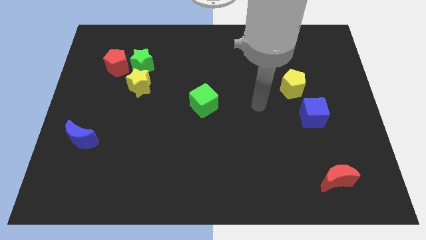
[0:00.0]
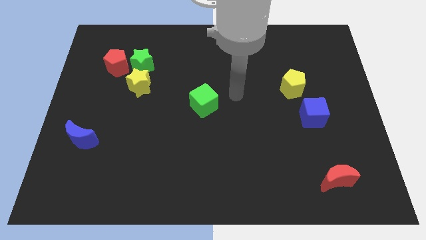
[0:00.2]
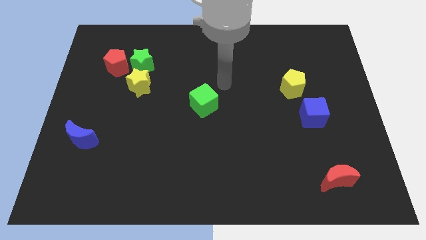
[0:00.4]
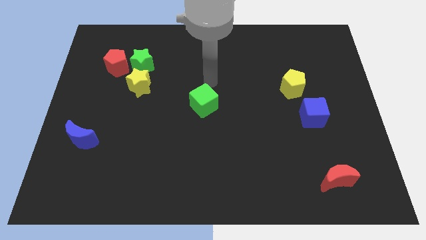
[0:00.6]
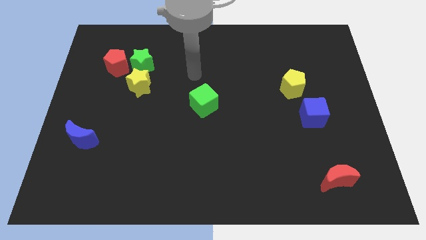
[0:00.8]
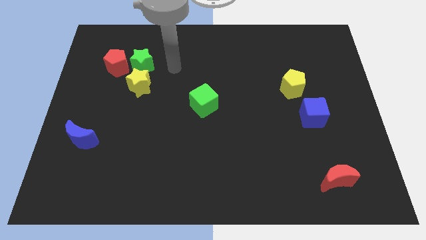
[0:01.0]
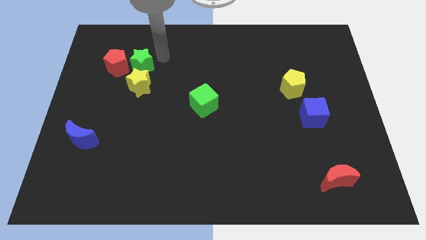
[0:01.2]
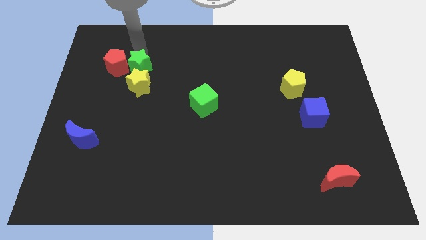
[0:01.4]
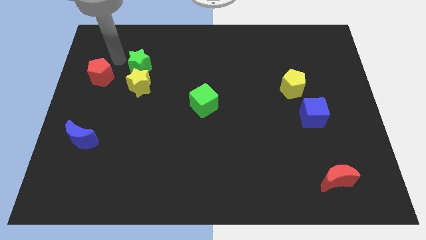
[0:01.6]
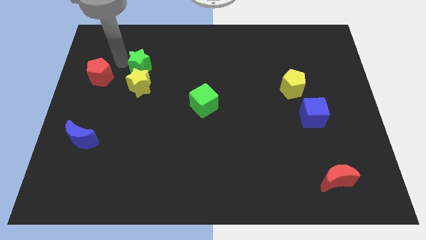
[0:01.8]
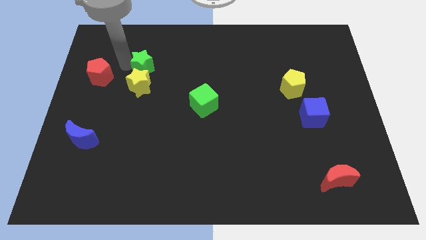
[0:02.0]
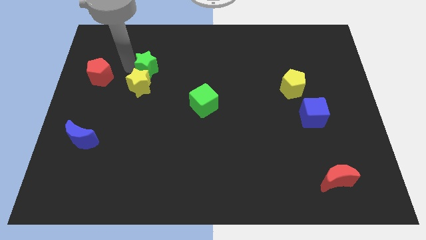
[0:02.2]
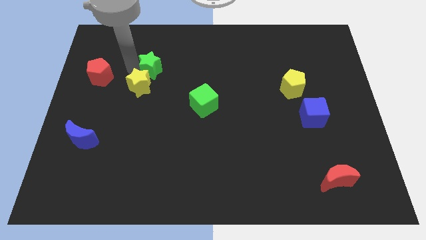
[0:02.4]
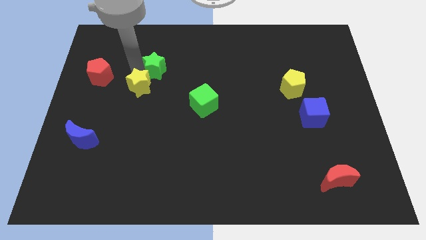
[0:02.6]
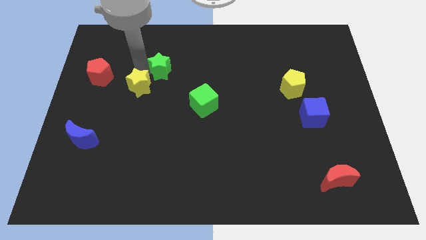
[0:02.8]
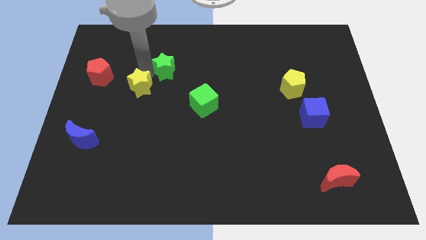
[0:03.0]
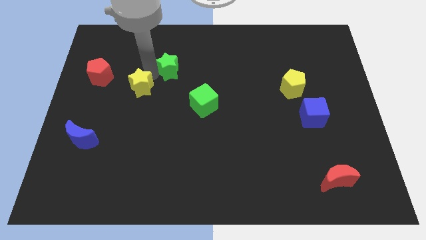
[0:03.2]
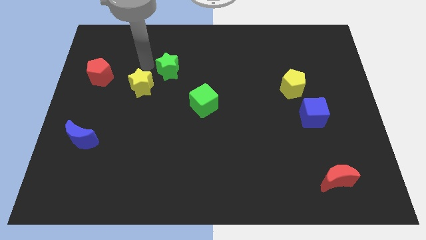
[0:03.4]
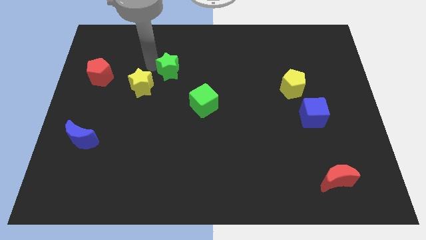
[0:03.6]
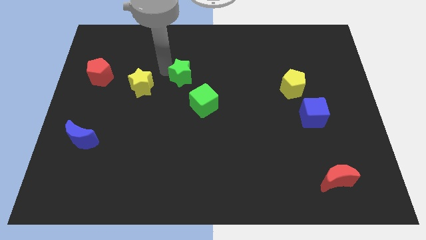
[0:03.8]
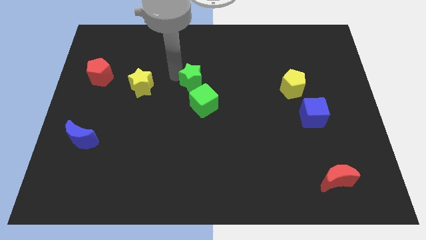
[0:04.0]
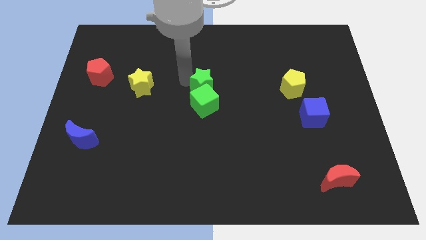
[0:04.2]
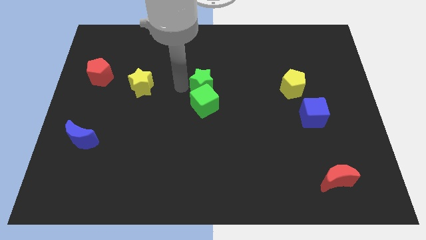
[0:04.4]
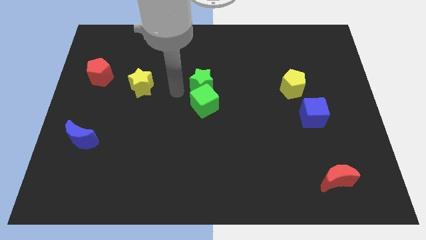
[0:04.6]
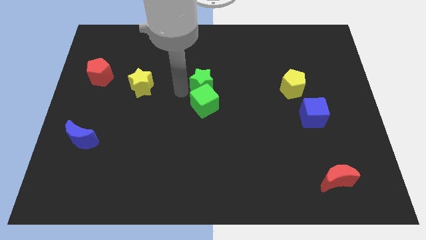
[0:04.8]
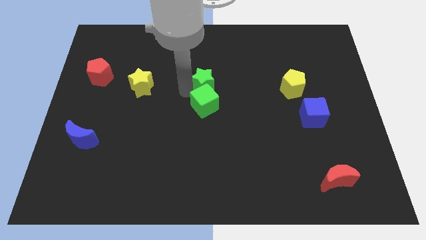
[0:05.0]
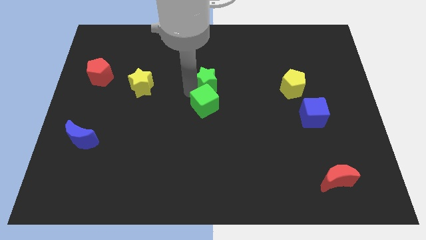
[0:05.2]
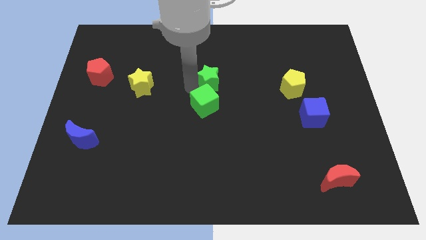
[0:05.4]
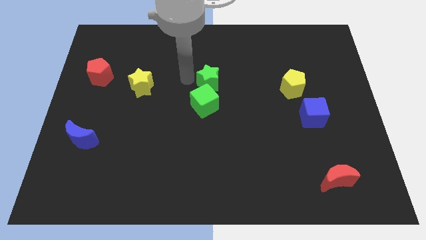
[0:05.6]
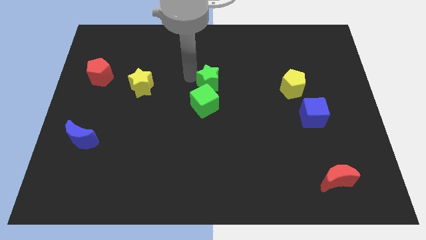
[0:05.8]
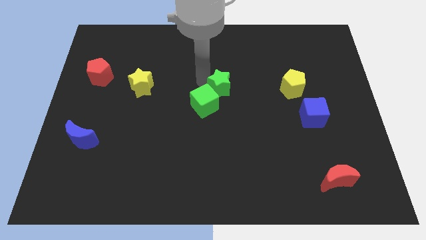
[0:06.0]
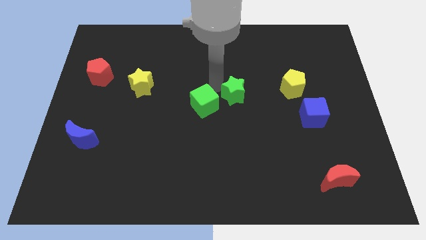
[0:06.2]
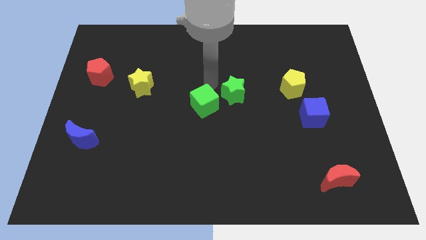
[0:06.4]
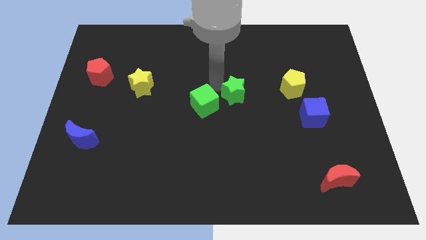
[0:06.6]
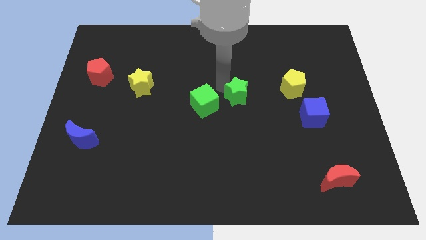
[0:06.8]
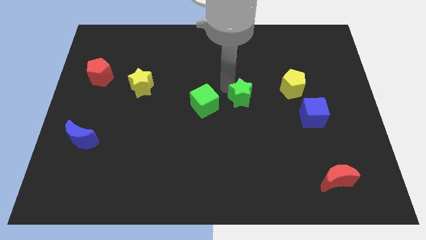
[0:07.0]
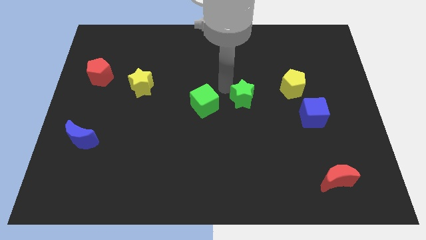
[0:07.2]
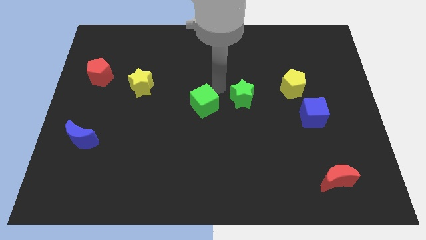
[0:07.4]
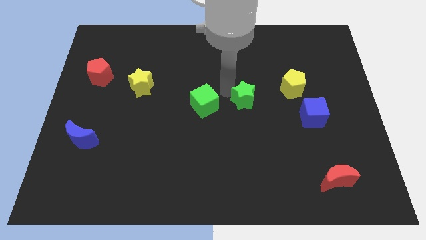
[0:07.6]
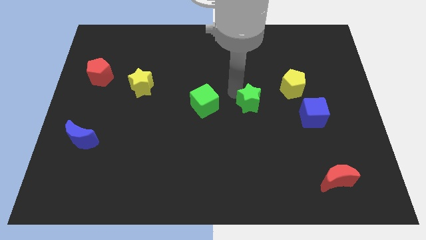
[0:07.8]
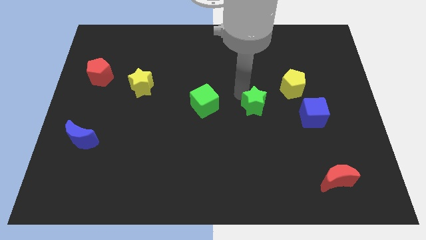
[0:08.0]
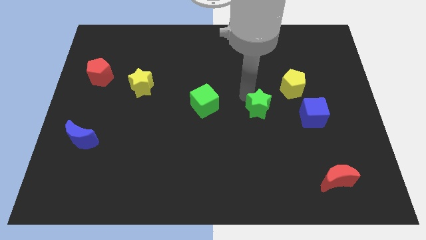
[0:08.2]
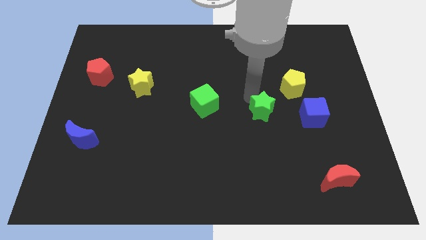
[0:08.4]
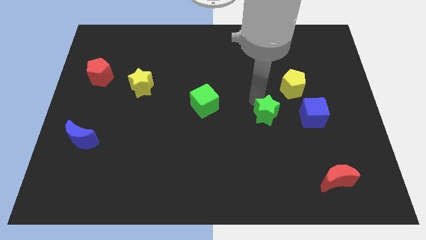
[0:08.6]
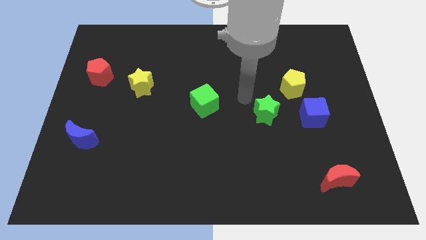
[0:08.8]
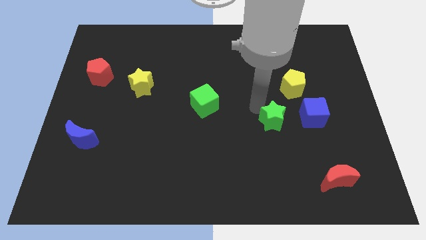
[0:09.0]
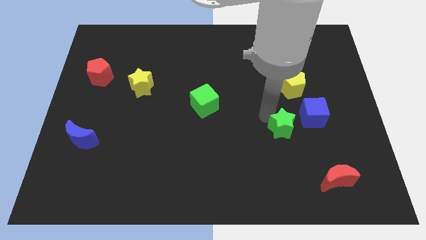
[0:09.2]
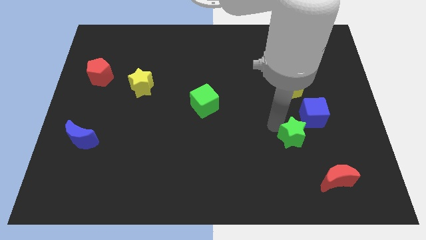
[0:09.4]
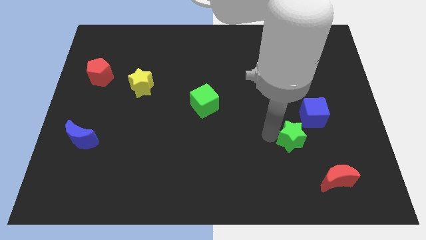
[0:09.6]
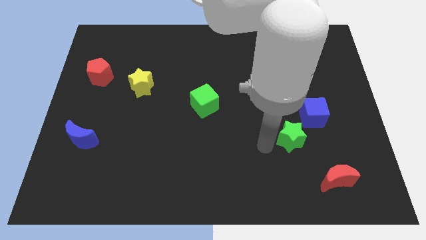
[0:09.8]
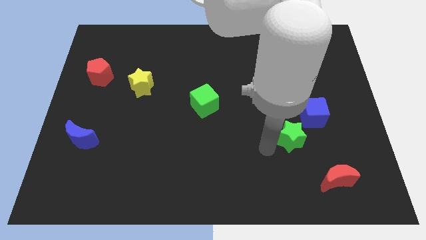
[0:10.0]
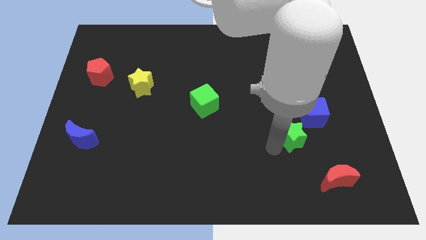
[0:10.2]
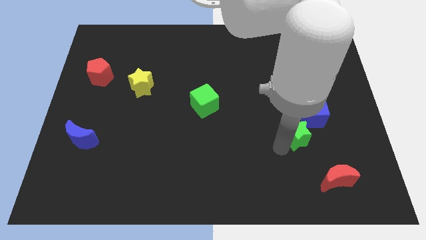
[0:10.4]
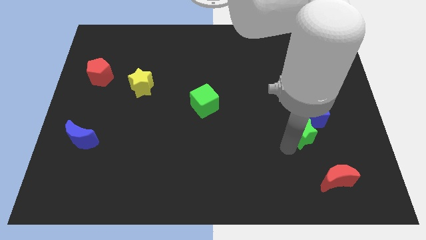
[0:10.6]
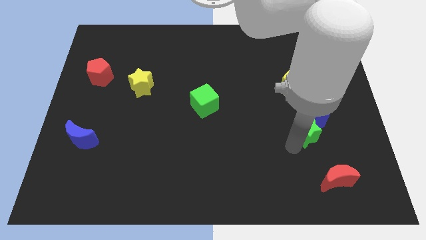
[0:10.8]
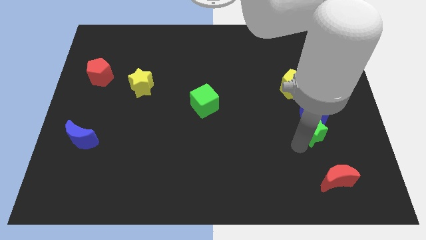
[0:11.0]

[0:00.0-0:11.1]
move the green star diagonally down and to the right of the blue cube

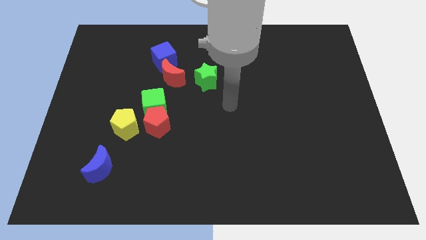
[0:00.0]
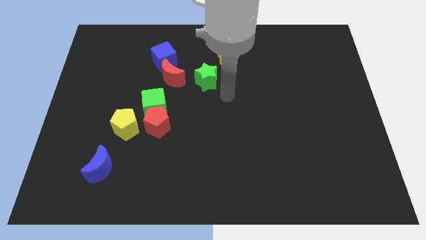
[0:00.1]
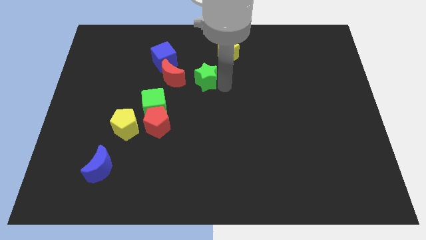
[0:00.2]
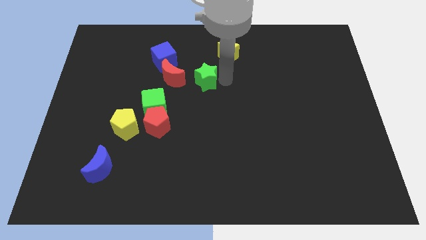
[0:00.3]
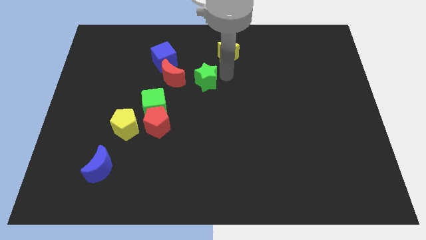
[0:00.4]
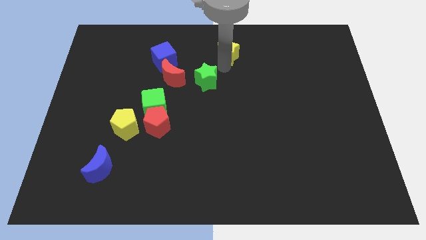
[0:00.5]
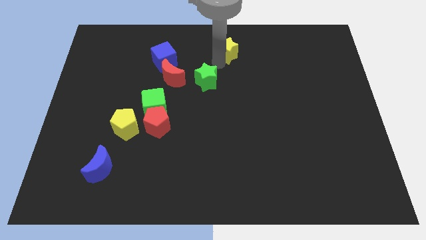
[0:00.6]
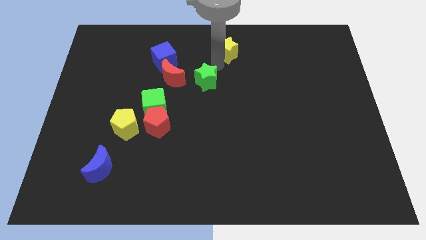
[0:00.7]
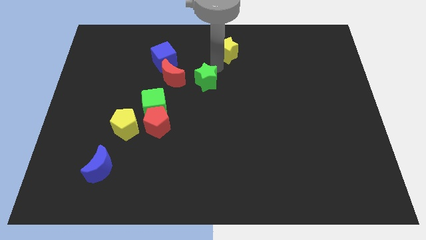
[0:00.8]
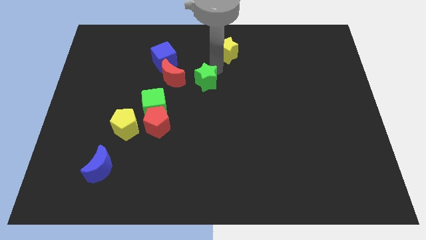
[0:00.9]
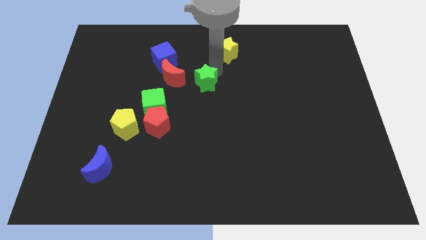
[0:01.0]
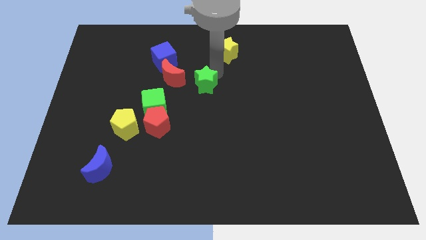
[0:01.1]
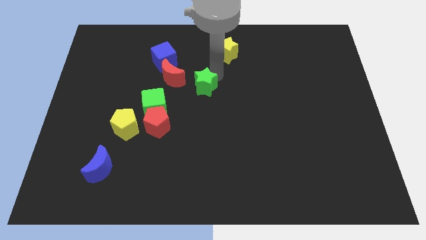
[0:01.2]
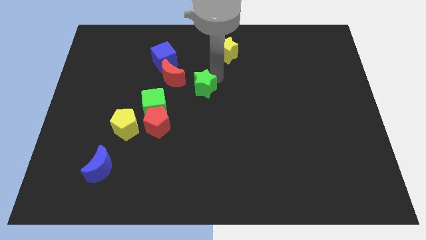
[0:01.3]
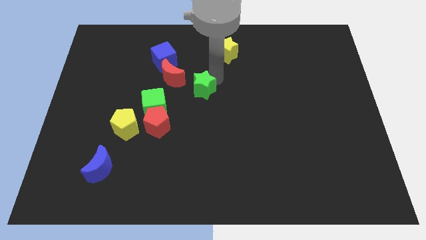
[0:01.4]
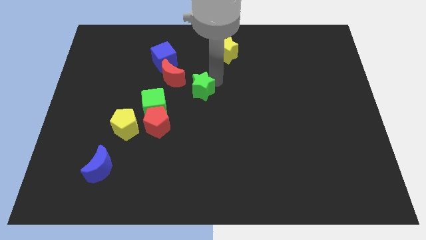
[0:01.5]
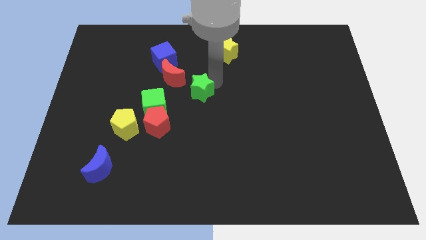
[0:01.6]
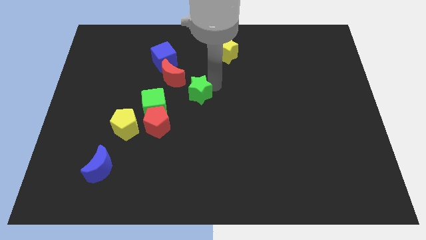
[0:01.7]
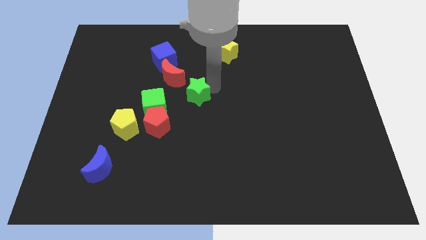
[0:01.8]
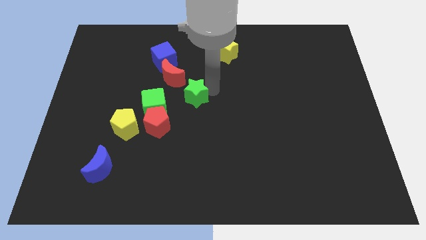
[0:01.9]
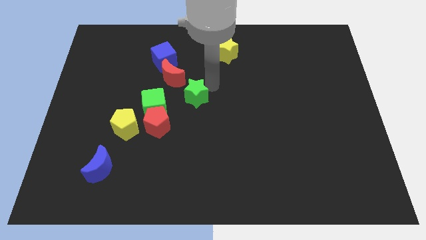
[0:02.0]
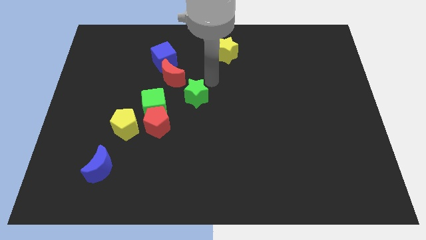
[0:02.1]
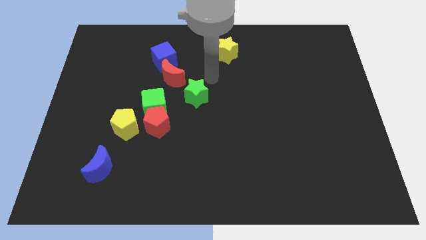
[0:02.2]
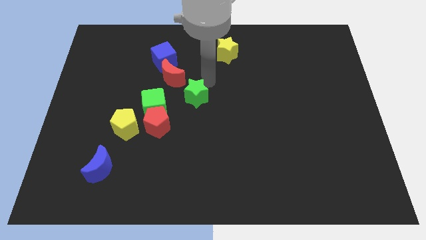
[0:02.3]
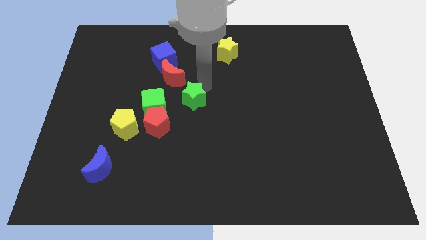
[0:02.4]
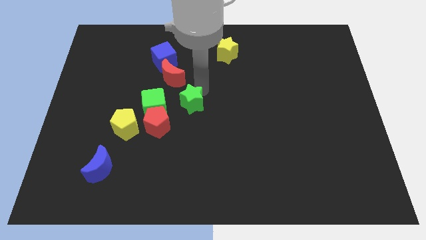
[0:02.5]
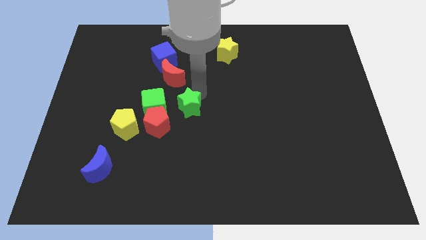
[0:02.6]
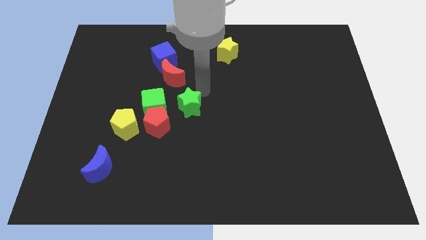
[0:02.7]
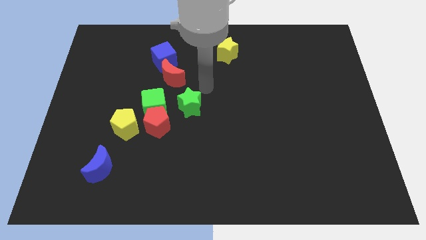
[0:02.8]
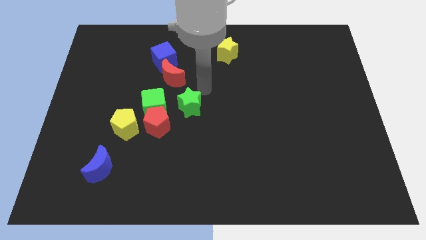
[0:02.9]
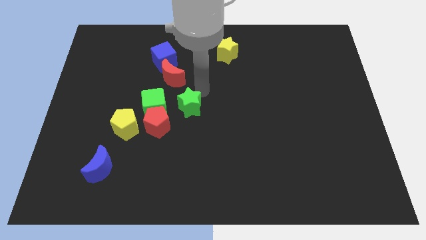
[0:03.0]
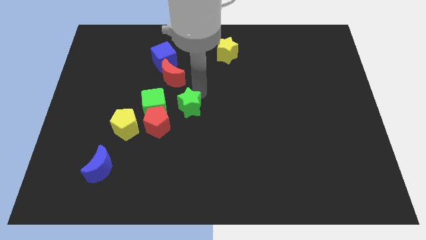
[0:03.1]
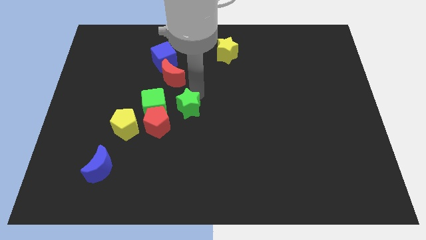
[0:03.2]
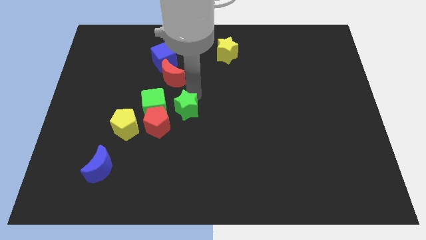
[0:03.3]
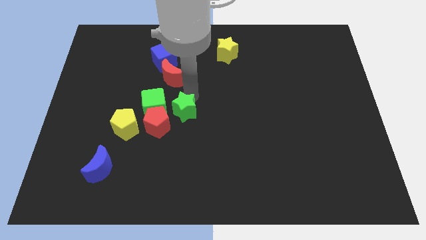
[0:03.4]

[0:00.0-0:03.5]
push the green star diagonally down and to the right of the green cube
